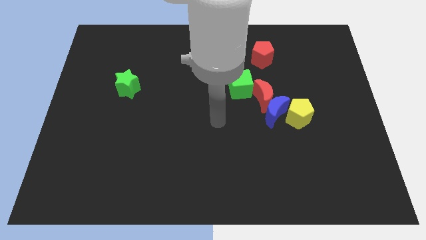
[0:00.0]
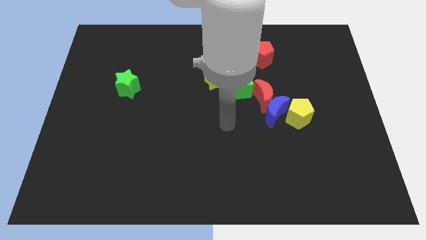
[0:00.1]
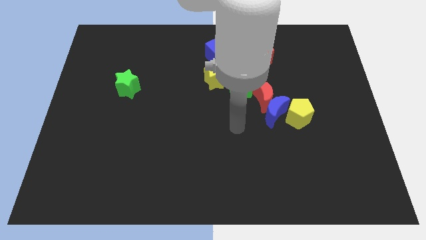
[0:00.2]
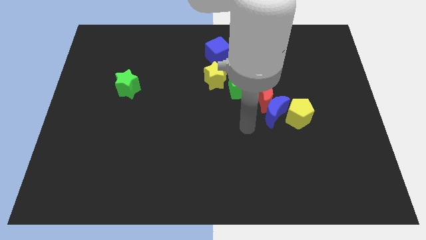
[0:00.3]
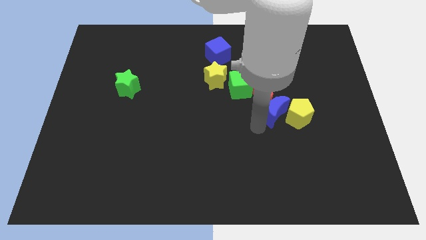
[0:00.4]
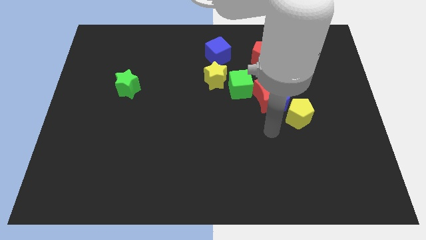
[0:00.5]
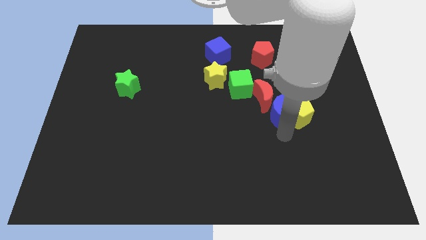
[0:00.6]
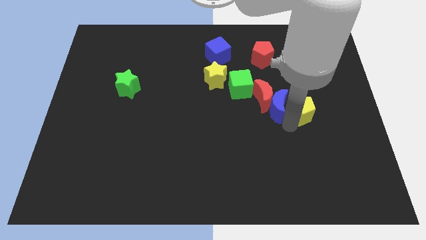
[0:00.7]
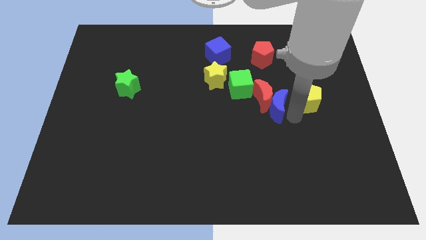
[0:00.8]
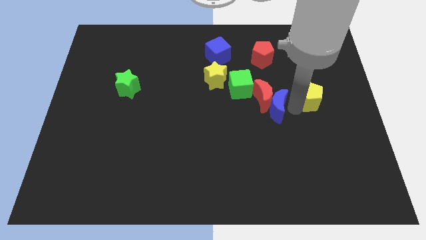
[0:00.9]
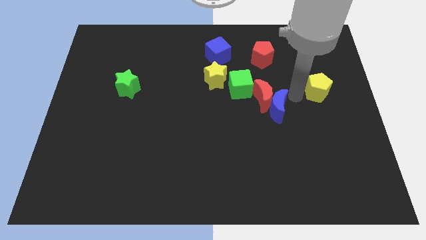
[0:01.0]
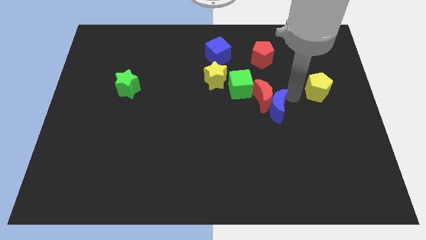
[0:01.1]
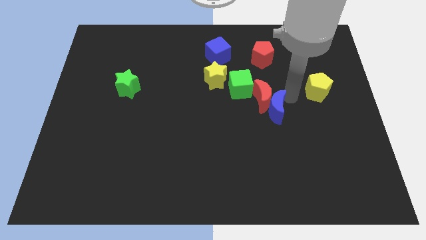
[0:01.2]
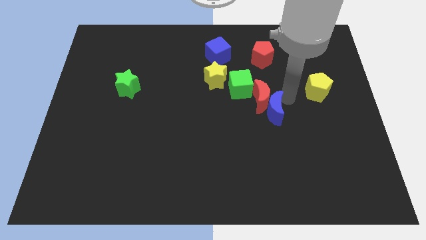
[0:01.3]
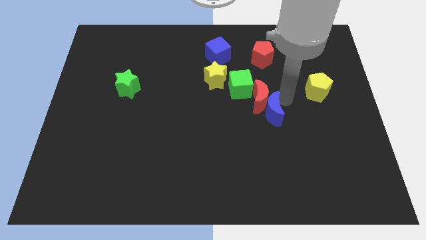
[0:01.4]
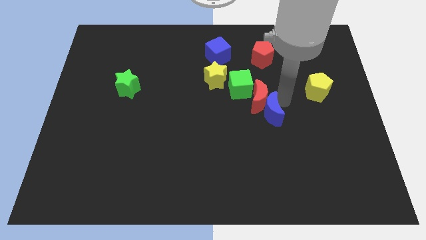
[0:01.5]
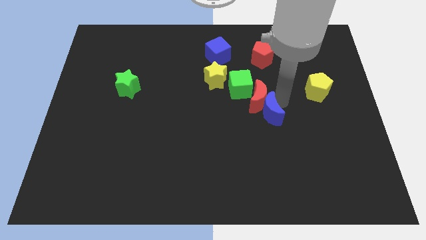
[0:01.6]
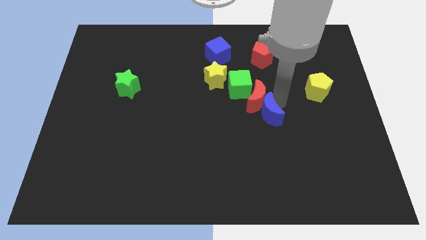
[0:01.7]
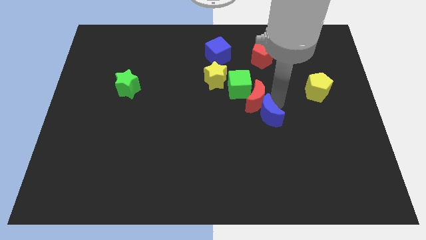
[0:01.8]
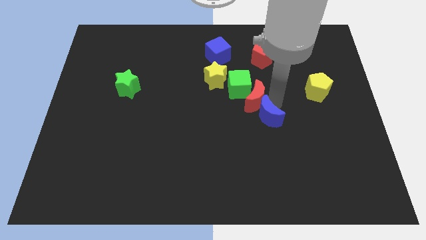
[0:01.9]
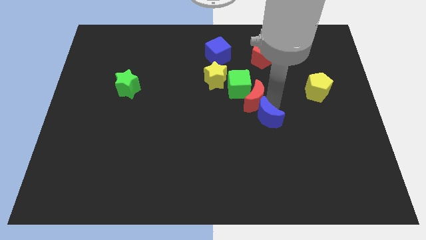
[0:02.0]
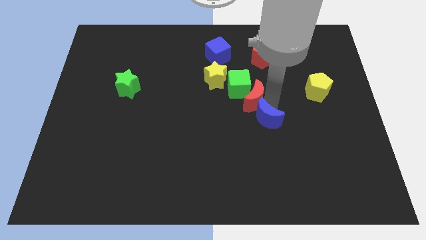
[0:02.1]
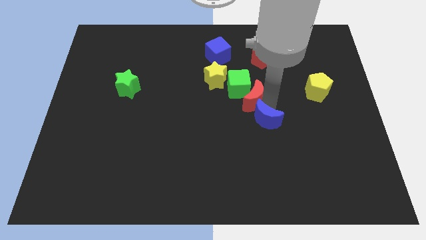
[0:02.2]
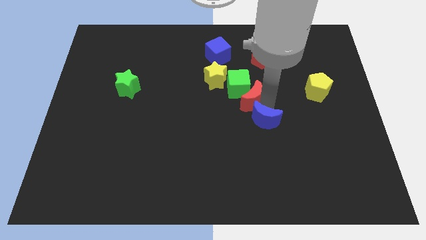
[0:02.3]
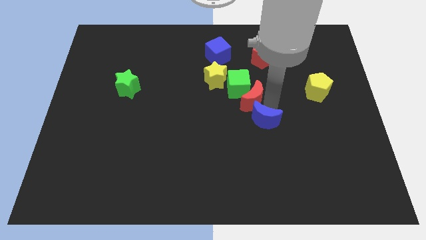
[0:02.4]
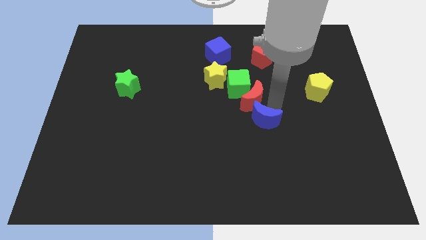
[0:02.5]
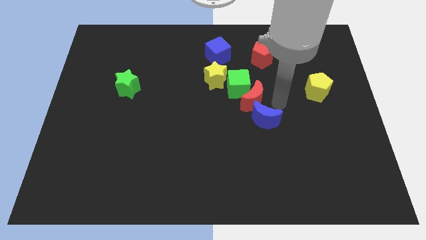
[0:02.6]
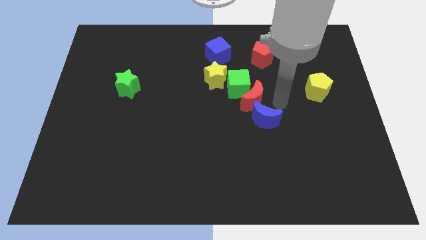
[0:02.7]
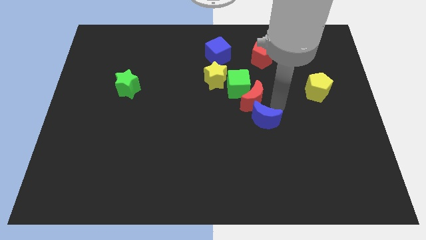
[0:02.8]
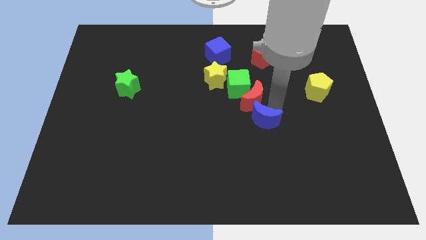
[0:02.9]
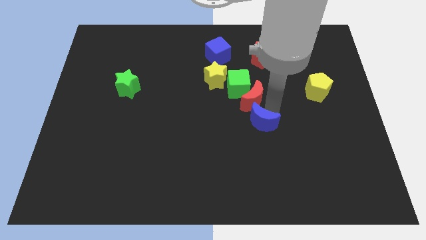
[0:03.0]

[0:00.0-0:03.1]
pull the blue moon apart from the red moon and yellow pentagon

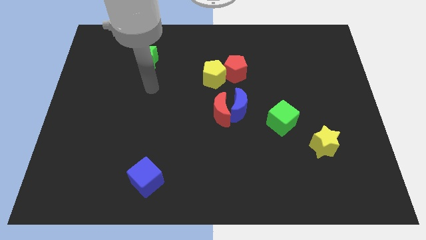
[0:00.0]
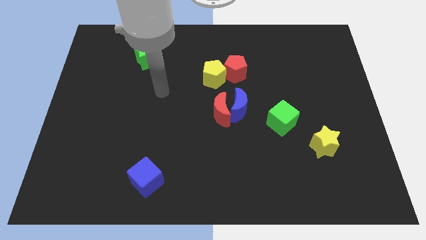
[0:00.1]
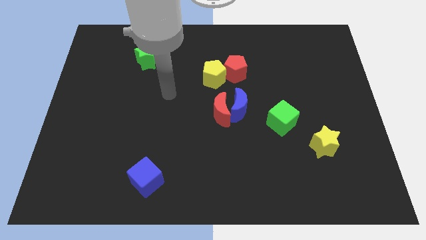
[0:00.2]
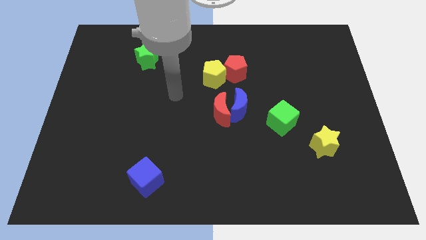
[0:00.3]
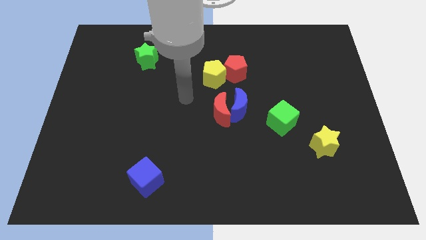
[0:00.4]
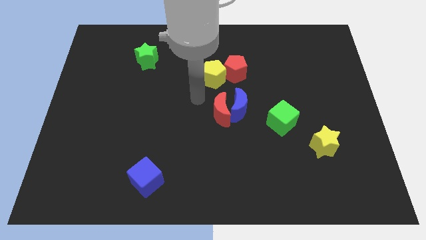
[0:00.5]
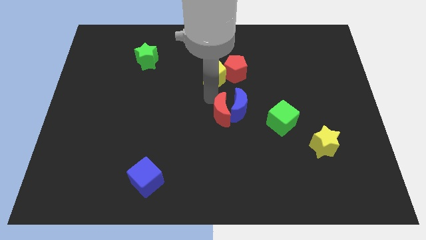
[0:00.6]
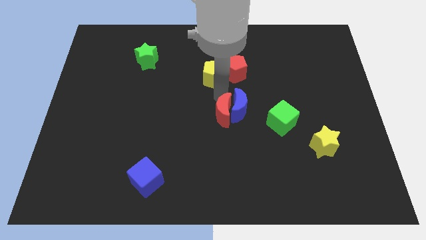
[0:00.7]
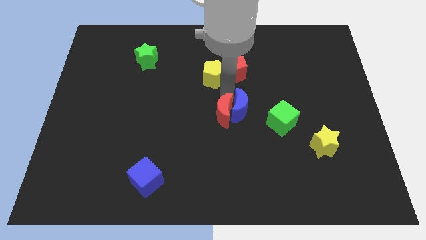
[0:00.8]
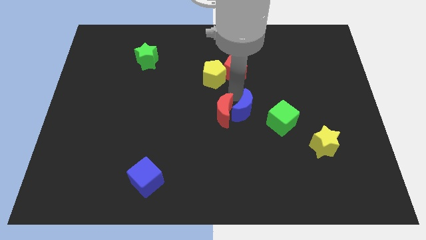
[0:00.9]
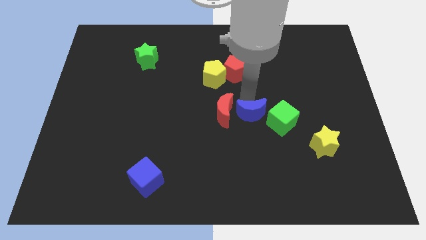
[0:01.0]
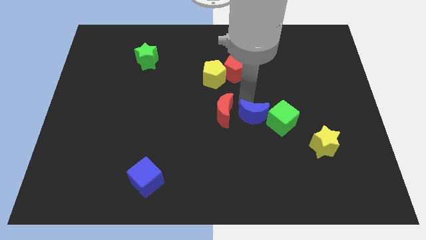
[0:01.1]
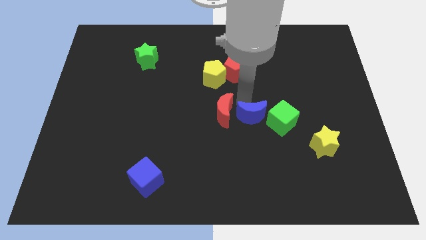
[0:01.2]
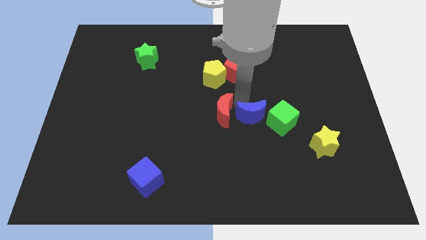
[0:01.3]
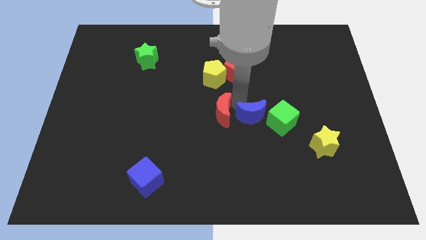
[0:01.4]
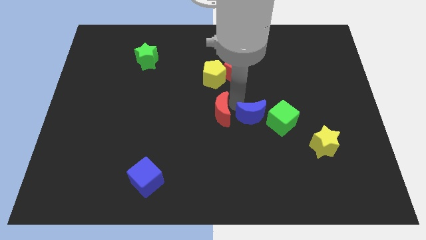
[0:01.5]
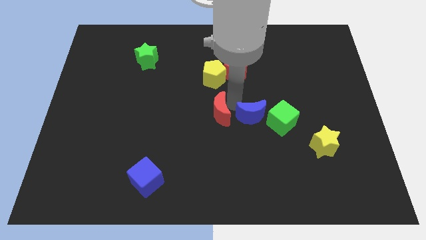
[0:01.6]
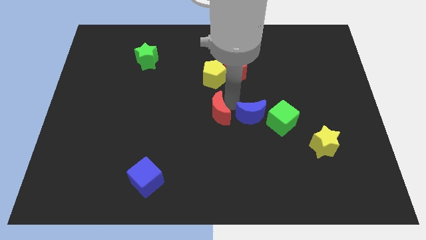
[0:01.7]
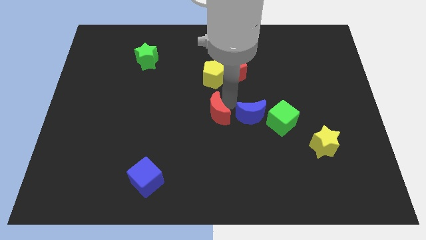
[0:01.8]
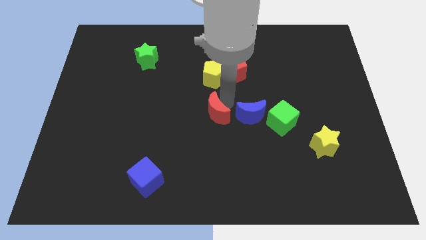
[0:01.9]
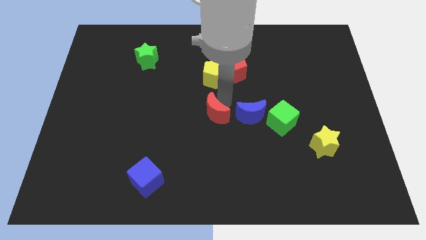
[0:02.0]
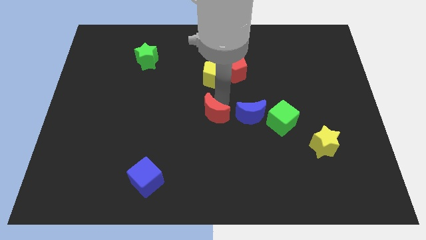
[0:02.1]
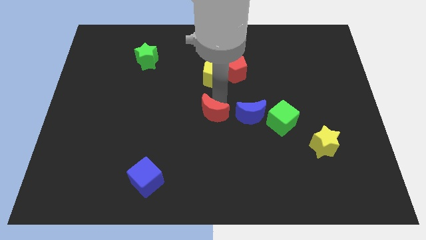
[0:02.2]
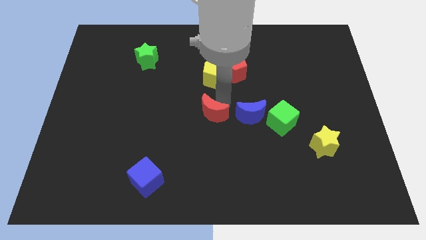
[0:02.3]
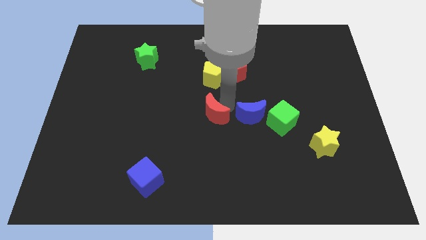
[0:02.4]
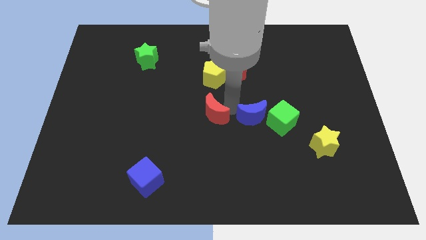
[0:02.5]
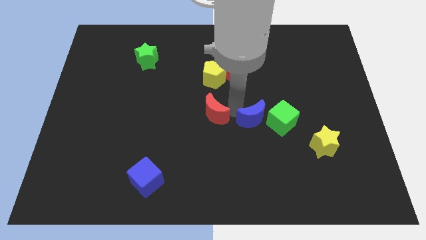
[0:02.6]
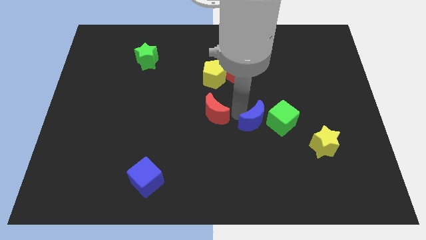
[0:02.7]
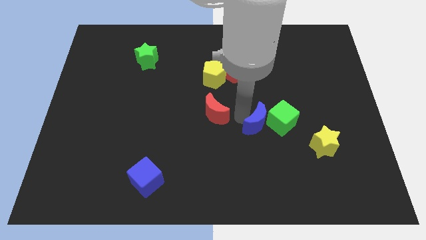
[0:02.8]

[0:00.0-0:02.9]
move the red moon away from the blue moon

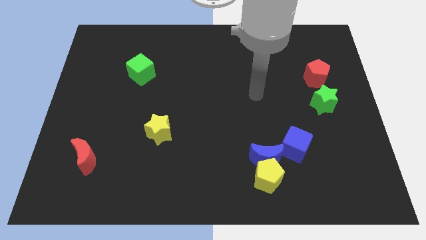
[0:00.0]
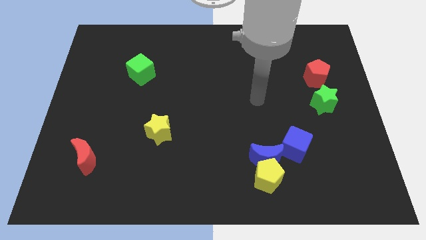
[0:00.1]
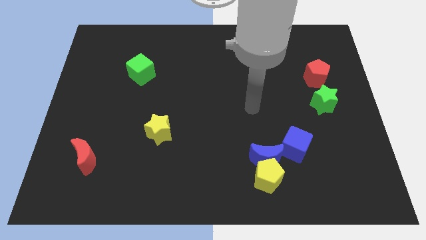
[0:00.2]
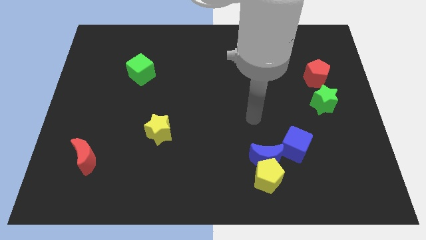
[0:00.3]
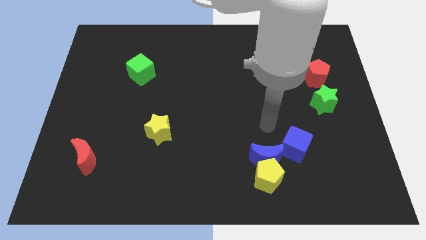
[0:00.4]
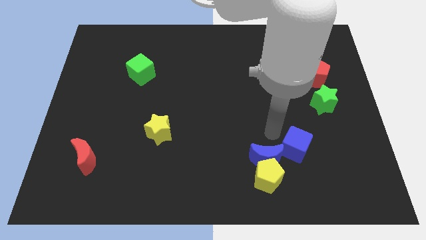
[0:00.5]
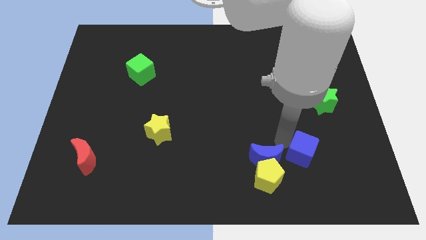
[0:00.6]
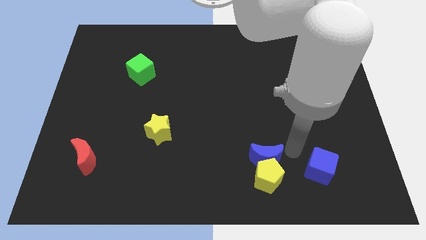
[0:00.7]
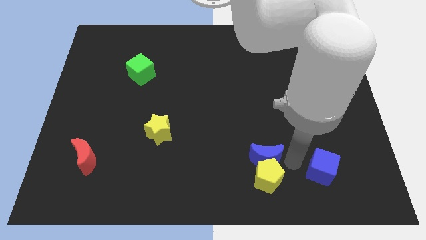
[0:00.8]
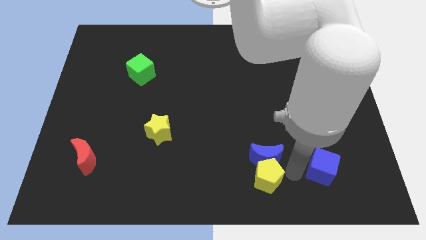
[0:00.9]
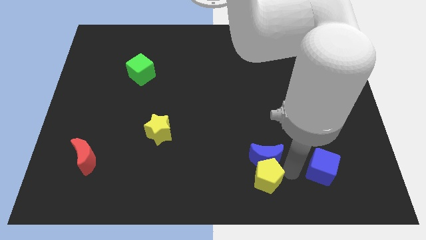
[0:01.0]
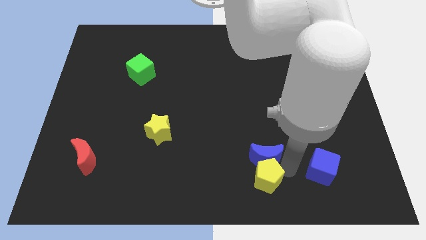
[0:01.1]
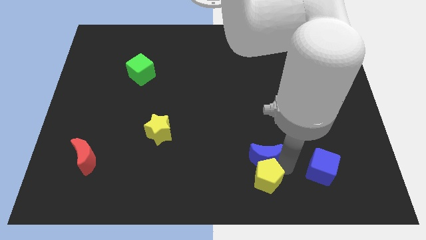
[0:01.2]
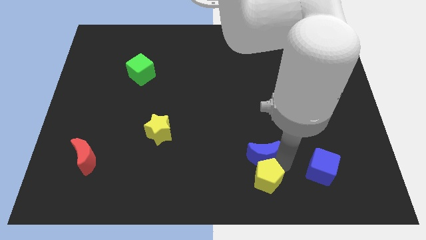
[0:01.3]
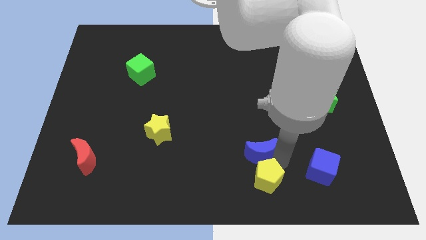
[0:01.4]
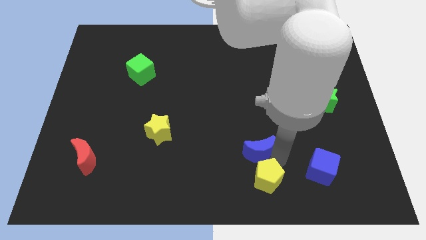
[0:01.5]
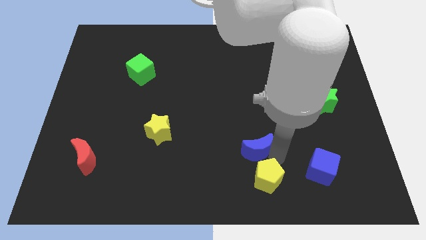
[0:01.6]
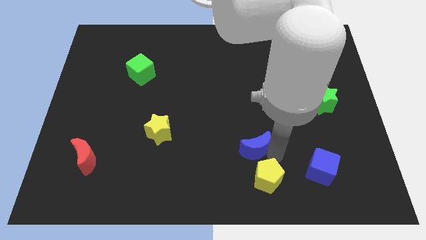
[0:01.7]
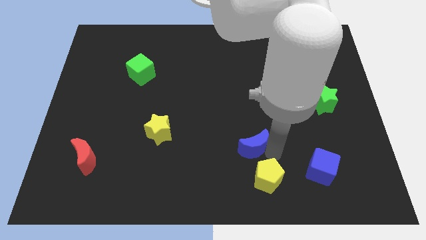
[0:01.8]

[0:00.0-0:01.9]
separate the blue moon from the yellow pentagon and blue cube

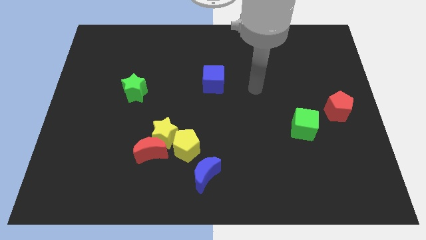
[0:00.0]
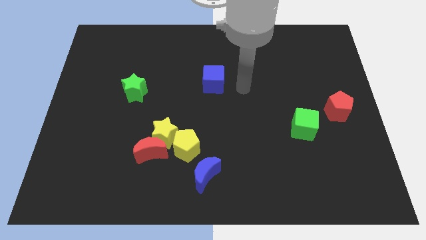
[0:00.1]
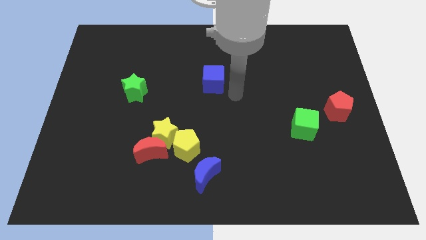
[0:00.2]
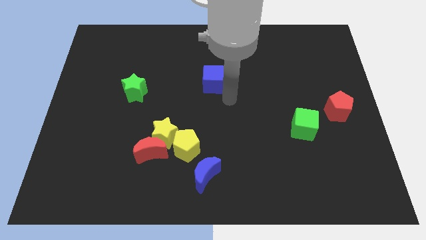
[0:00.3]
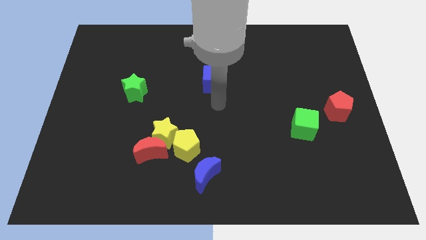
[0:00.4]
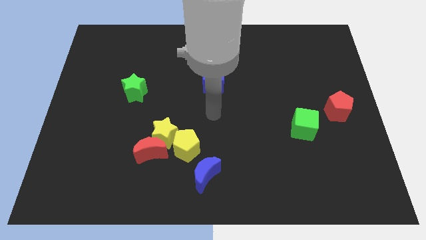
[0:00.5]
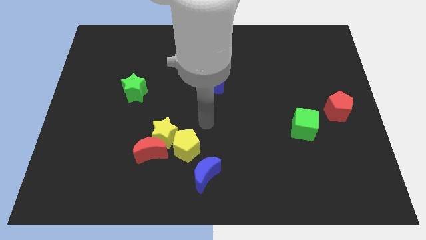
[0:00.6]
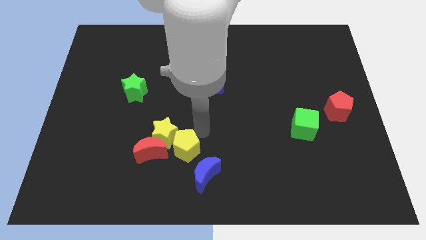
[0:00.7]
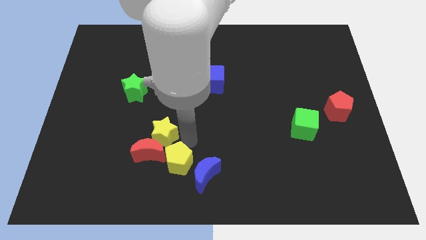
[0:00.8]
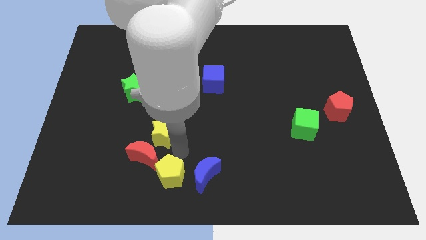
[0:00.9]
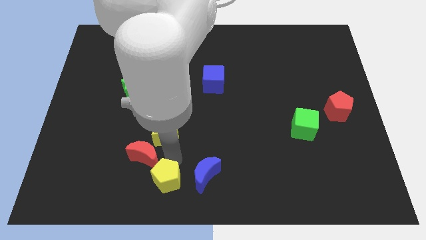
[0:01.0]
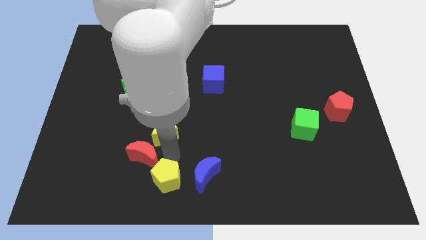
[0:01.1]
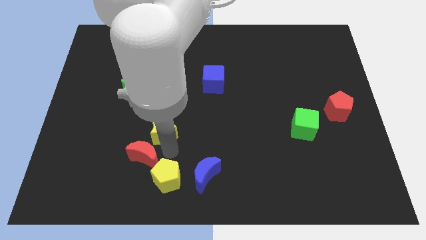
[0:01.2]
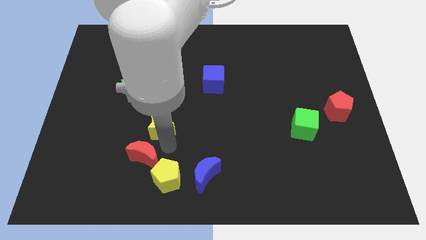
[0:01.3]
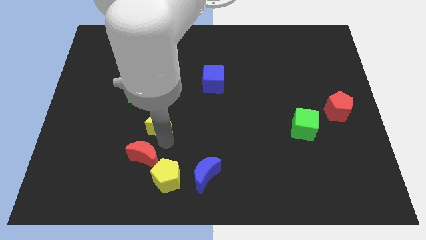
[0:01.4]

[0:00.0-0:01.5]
separate the yellow star from the red moon and yellow pentagon
